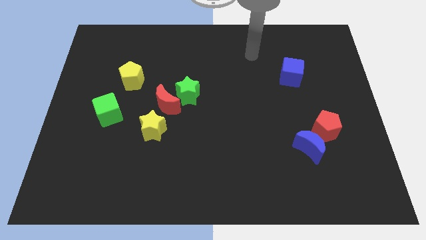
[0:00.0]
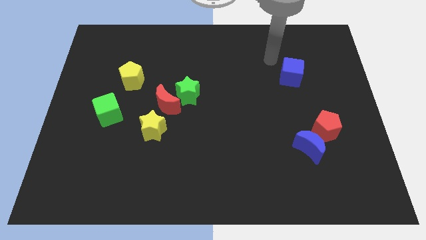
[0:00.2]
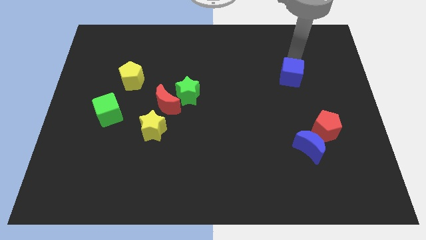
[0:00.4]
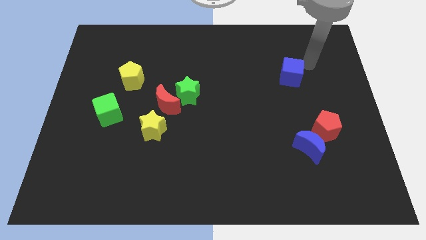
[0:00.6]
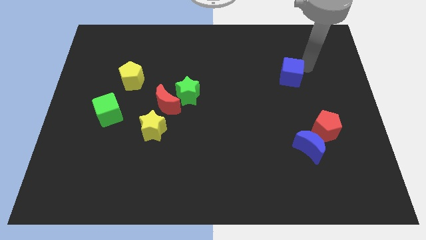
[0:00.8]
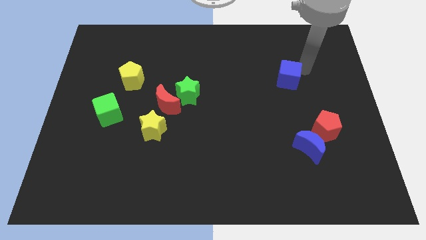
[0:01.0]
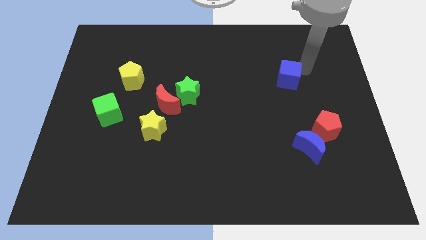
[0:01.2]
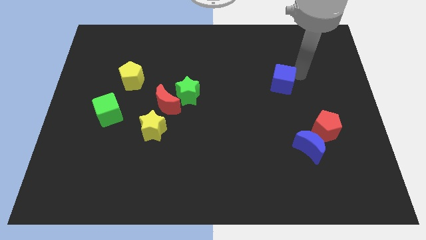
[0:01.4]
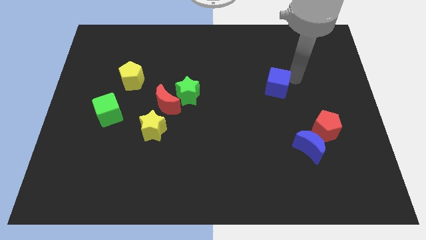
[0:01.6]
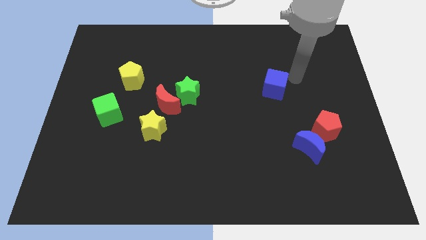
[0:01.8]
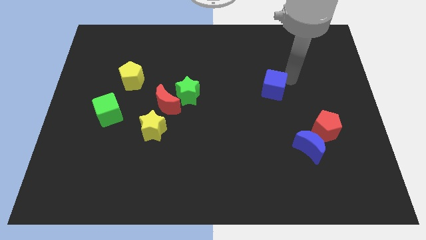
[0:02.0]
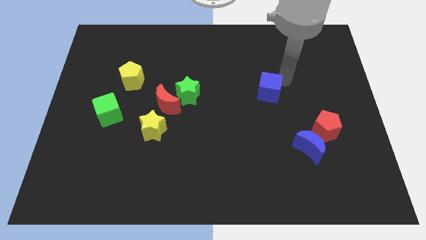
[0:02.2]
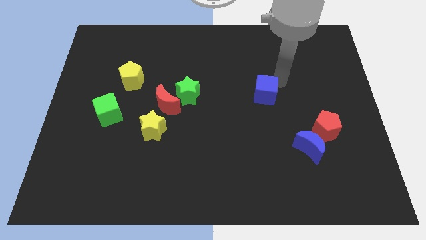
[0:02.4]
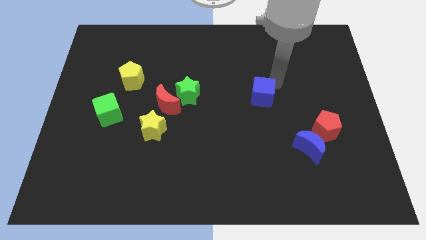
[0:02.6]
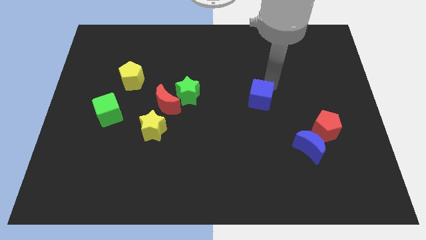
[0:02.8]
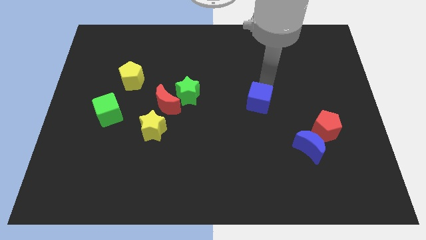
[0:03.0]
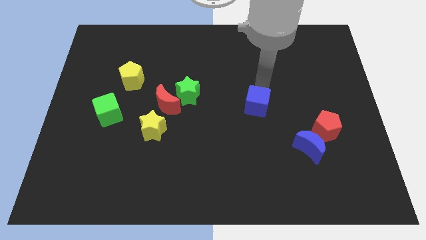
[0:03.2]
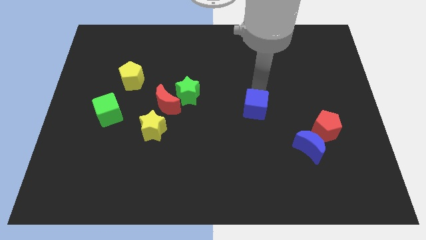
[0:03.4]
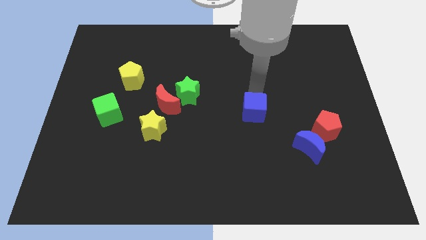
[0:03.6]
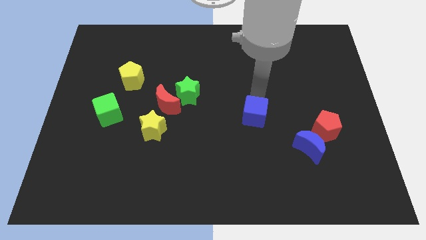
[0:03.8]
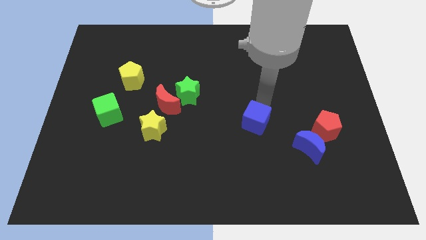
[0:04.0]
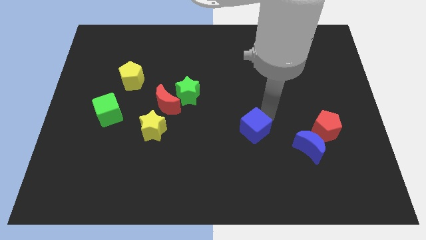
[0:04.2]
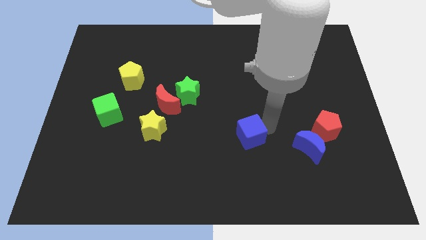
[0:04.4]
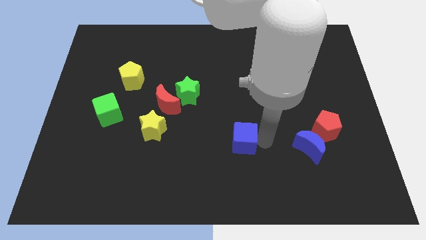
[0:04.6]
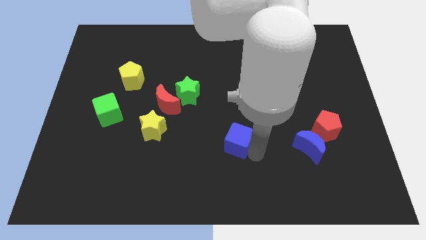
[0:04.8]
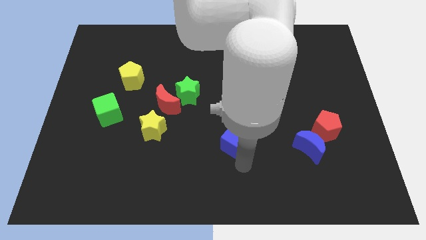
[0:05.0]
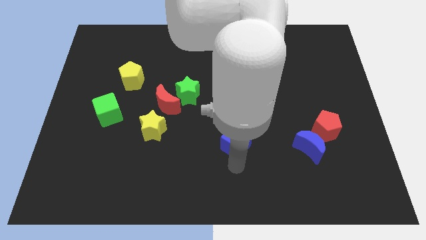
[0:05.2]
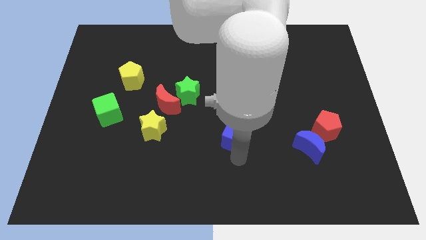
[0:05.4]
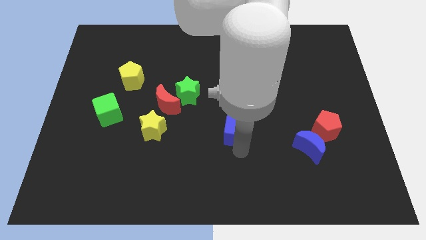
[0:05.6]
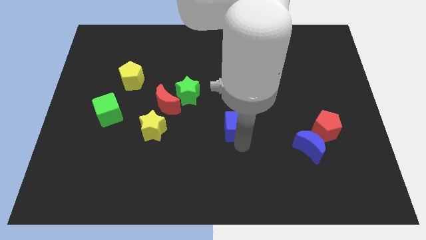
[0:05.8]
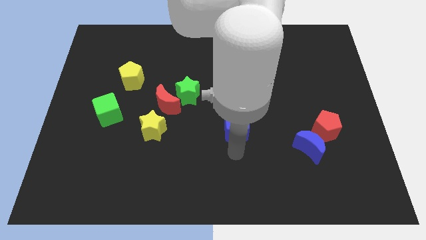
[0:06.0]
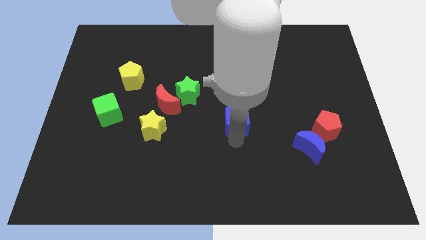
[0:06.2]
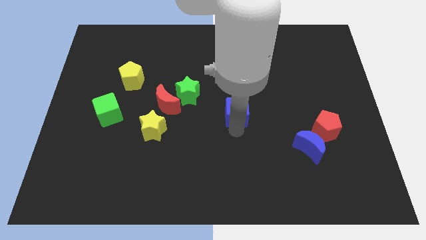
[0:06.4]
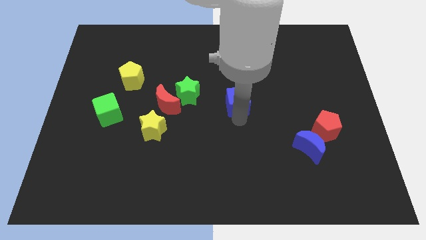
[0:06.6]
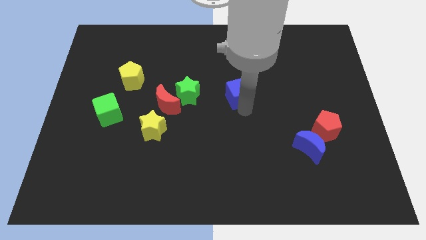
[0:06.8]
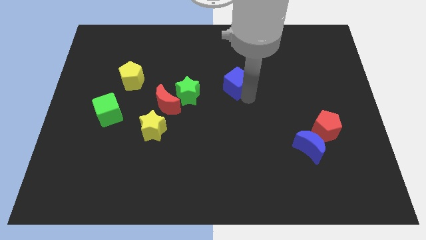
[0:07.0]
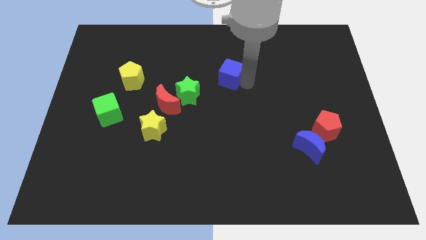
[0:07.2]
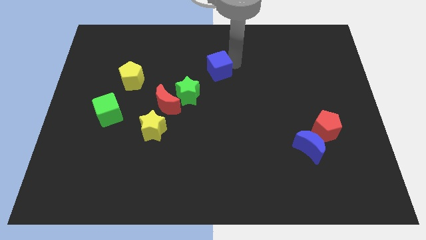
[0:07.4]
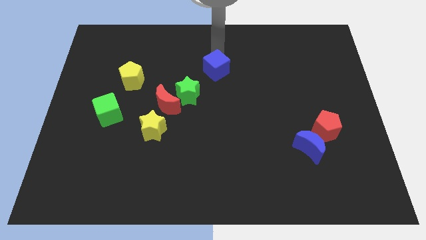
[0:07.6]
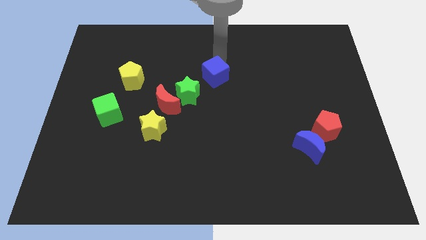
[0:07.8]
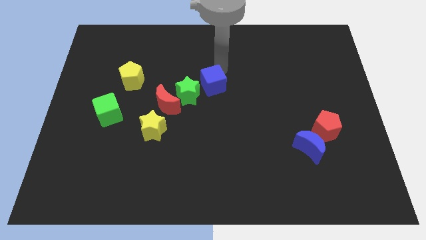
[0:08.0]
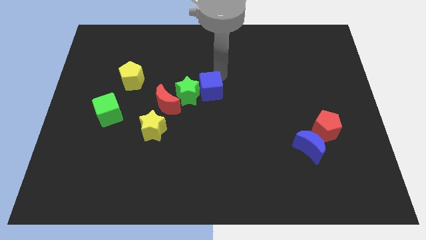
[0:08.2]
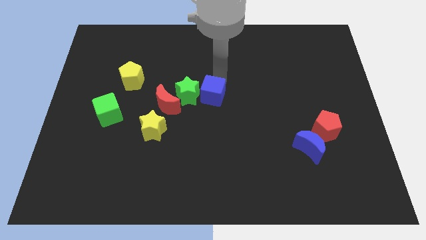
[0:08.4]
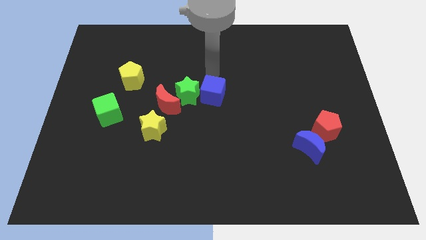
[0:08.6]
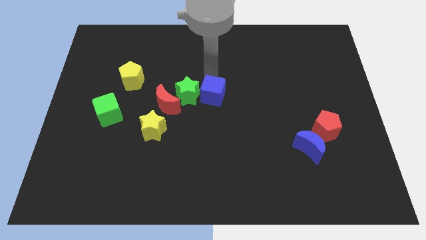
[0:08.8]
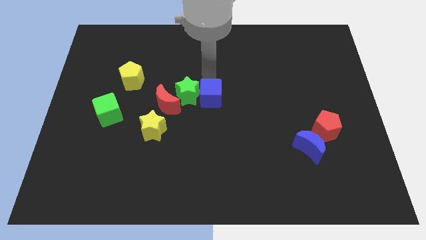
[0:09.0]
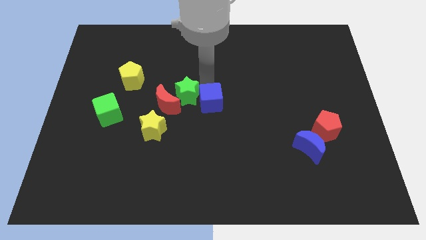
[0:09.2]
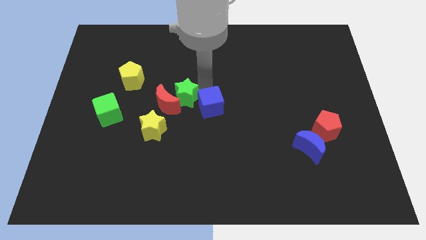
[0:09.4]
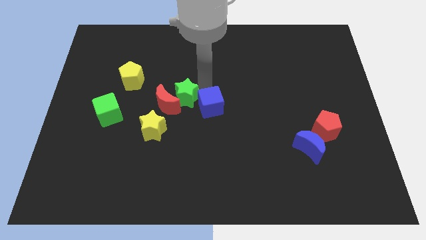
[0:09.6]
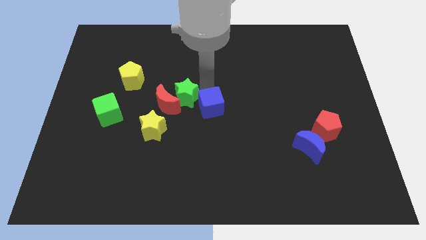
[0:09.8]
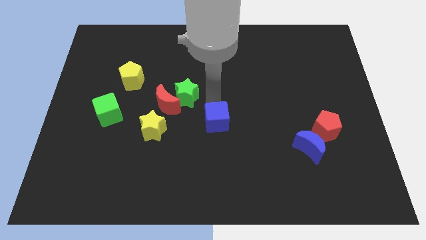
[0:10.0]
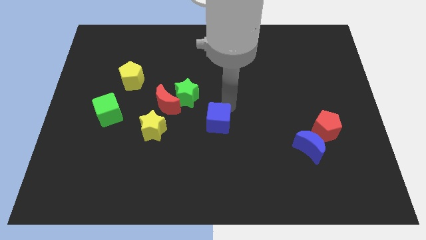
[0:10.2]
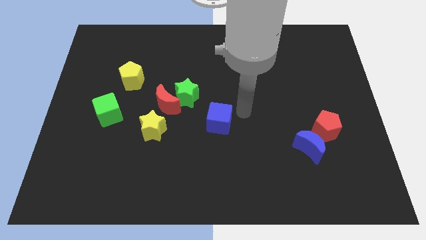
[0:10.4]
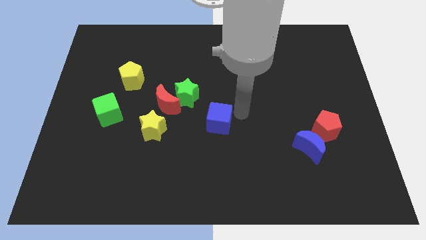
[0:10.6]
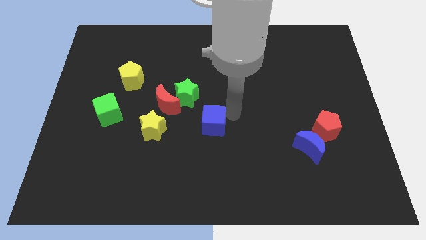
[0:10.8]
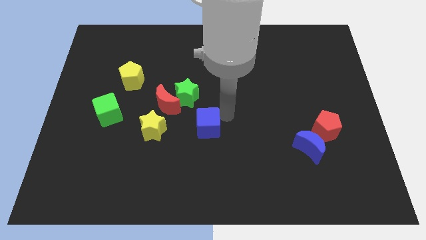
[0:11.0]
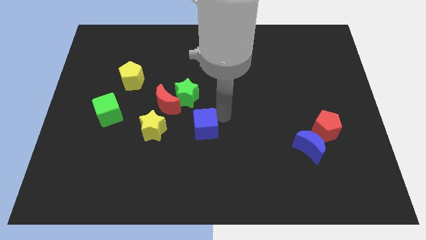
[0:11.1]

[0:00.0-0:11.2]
slide the blue cube to the bottom of the green star

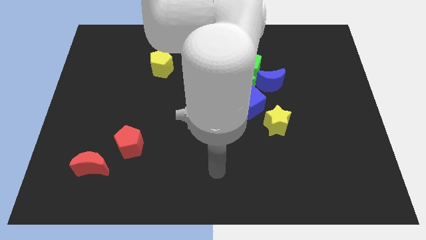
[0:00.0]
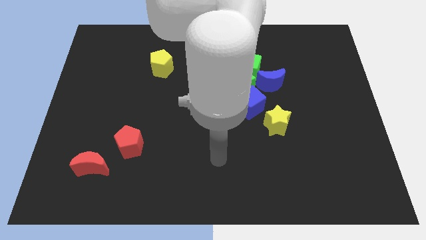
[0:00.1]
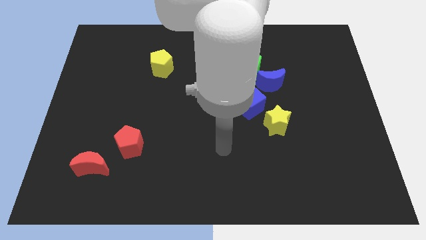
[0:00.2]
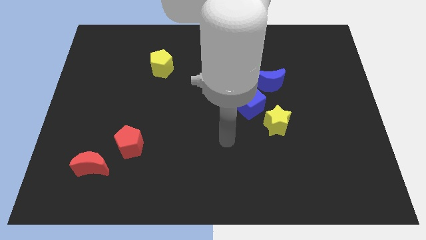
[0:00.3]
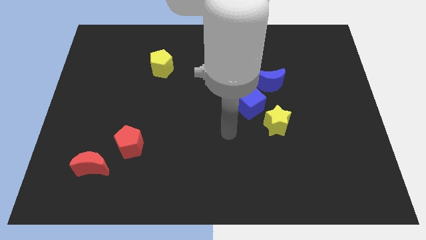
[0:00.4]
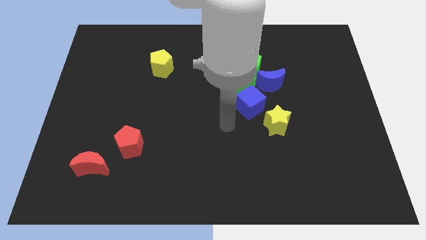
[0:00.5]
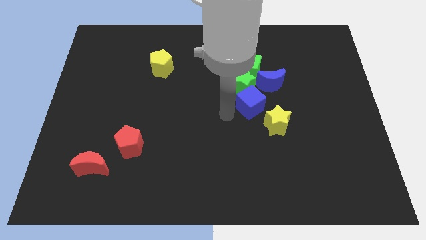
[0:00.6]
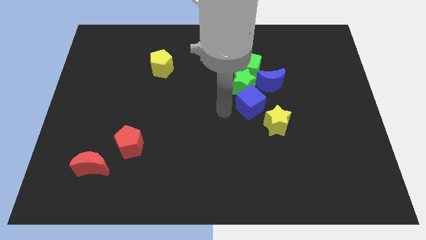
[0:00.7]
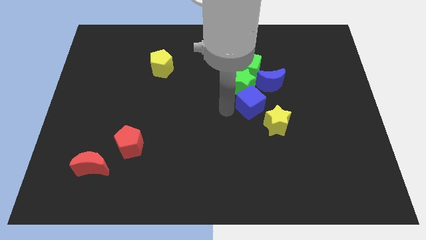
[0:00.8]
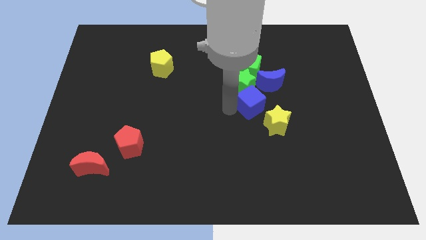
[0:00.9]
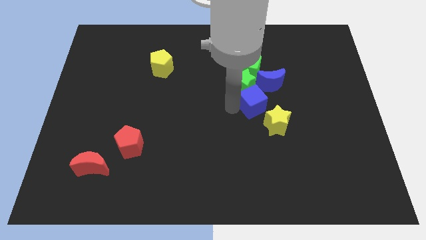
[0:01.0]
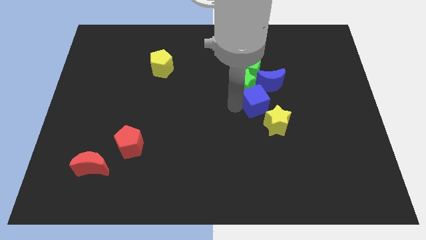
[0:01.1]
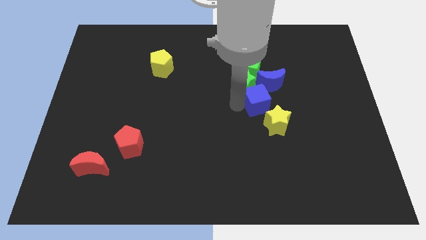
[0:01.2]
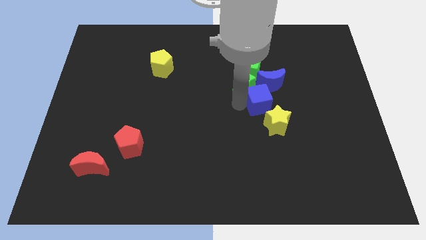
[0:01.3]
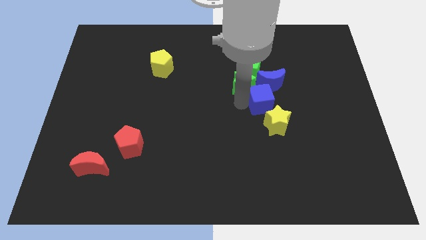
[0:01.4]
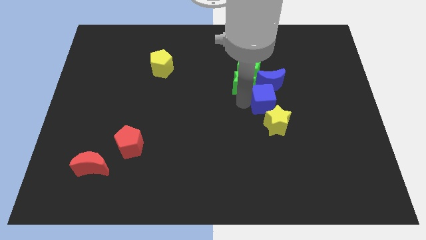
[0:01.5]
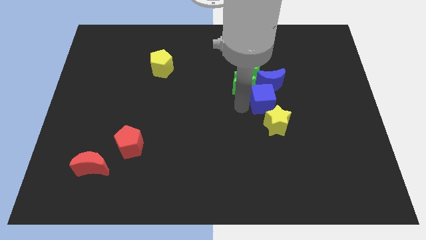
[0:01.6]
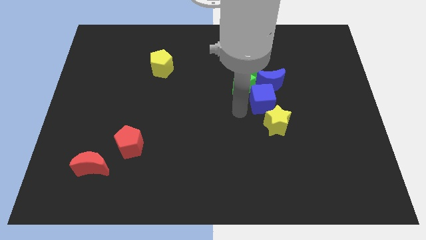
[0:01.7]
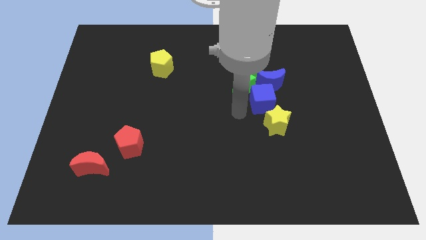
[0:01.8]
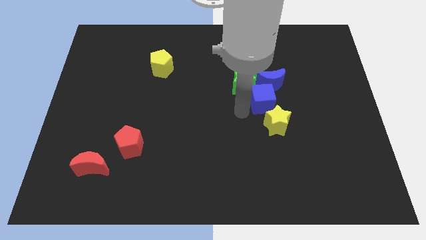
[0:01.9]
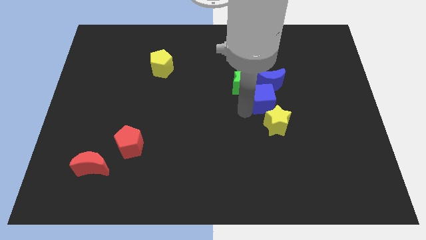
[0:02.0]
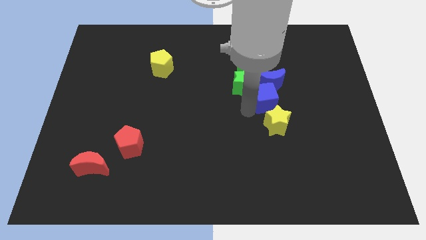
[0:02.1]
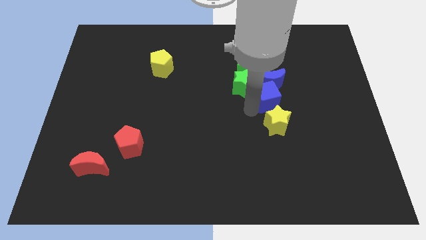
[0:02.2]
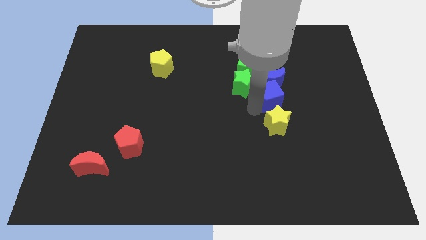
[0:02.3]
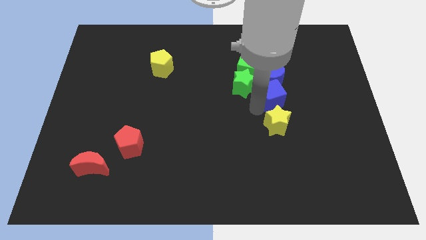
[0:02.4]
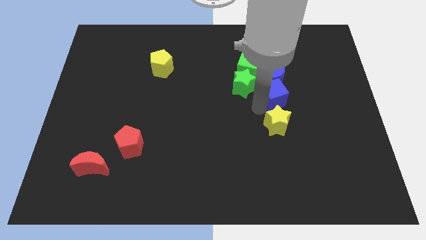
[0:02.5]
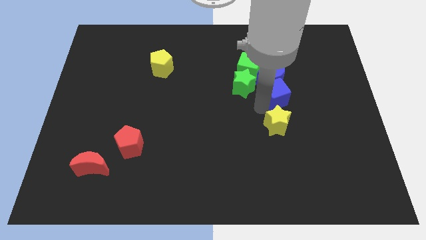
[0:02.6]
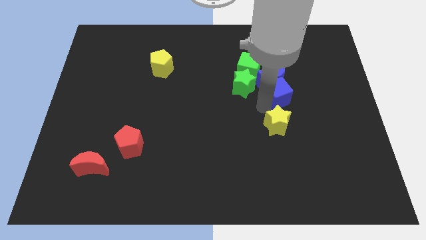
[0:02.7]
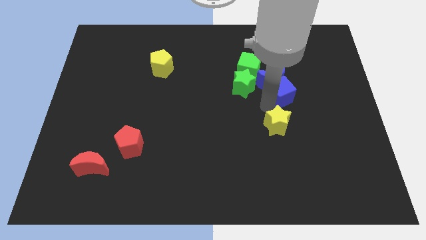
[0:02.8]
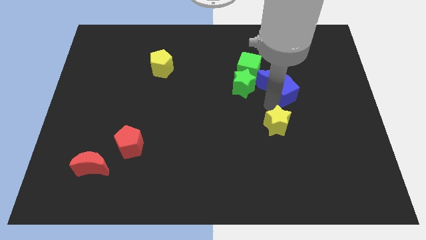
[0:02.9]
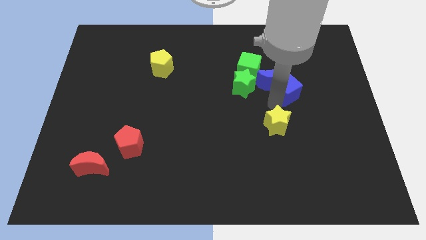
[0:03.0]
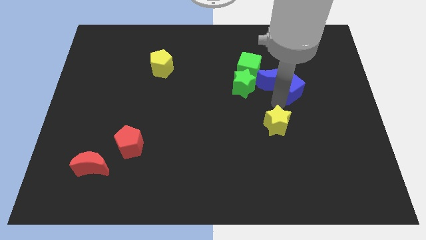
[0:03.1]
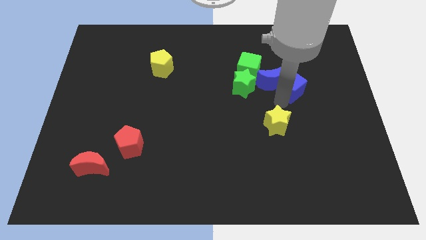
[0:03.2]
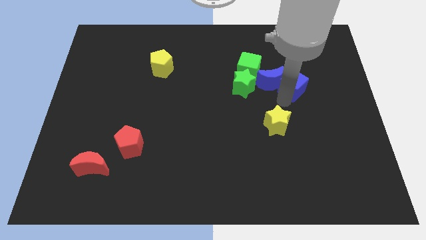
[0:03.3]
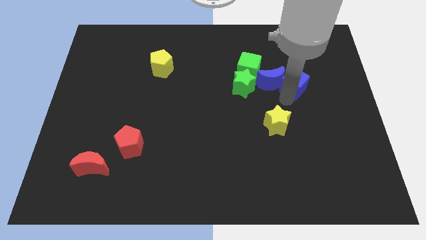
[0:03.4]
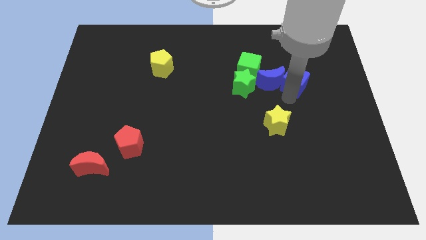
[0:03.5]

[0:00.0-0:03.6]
slide the blue cube just right of the green cube
